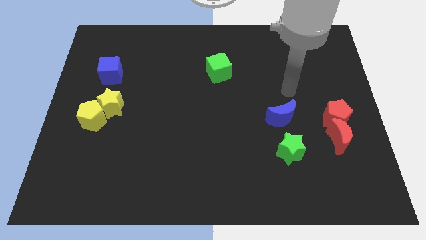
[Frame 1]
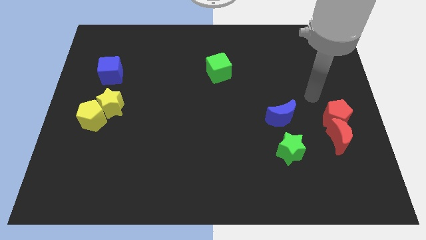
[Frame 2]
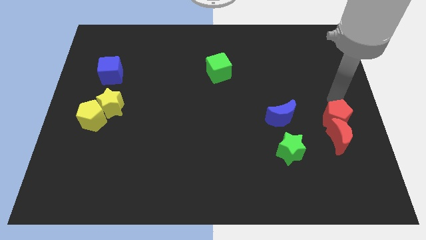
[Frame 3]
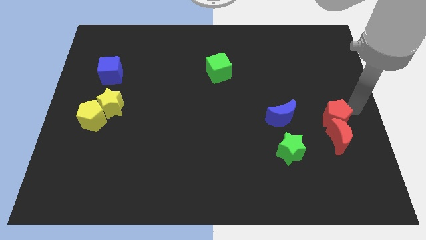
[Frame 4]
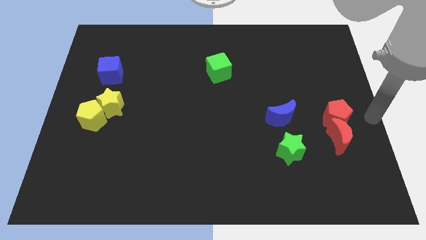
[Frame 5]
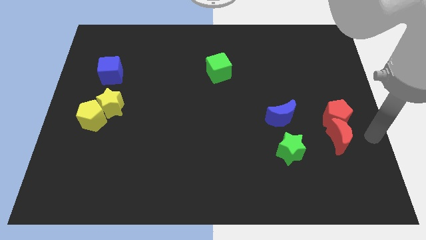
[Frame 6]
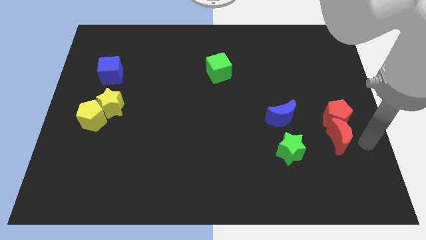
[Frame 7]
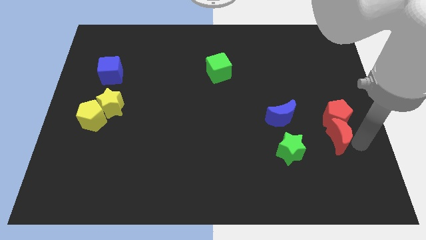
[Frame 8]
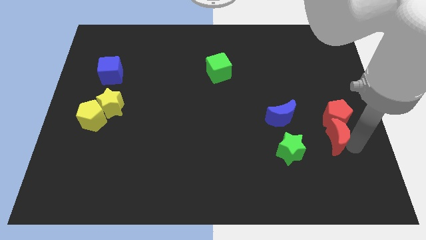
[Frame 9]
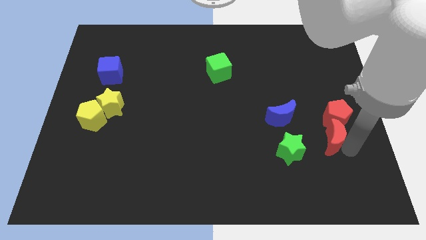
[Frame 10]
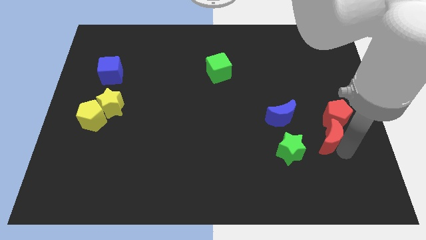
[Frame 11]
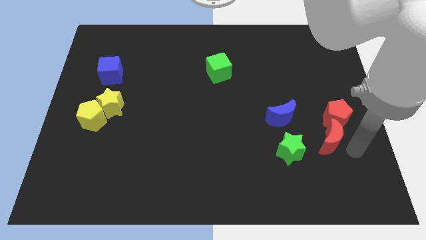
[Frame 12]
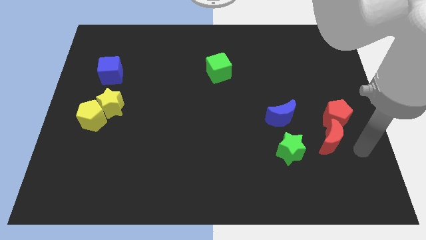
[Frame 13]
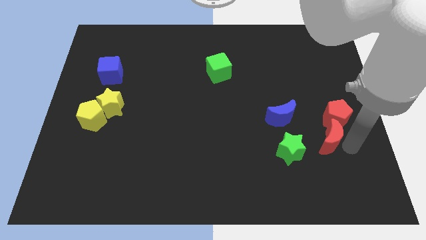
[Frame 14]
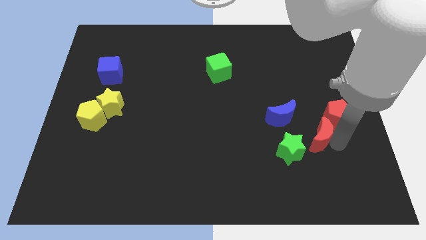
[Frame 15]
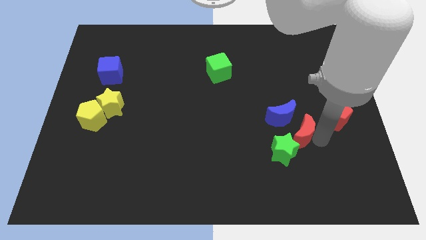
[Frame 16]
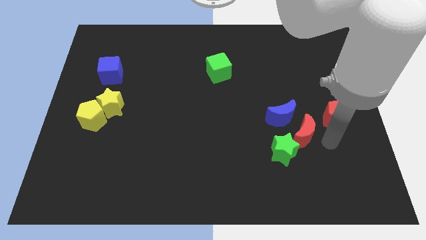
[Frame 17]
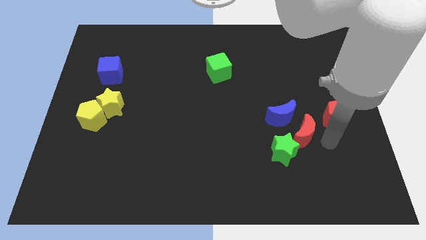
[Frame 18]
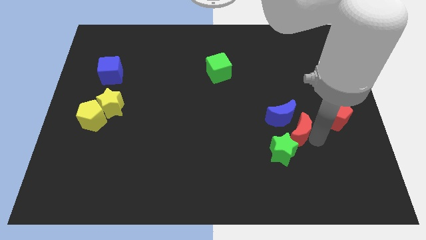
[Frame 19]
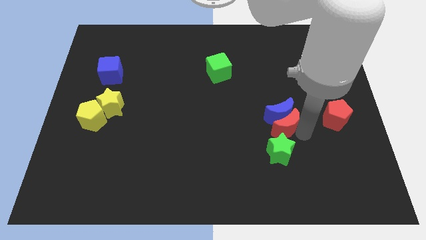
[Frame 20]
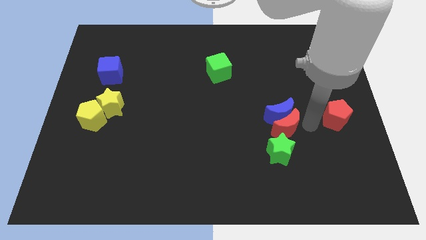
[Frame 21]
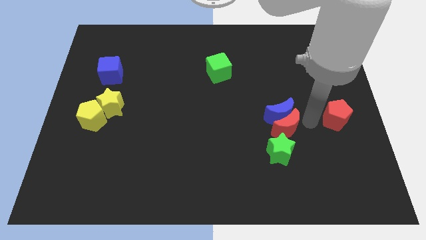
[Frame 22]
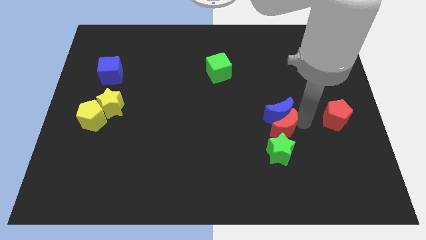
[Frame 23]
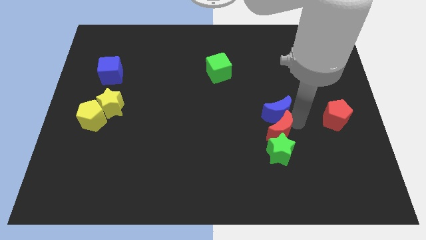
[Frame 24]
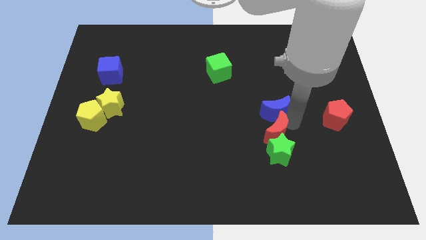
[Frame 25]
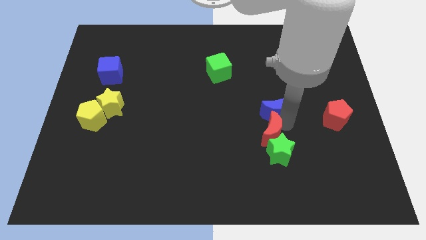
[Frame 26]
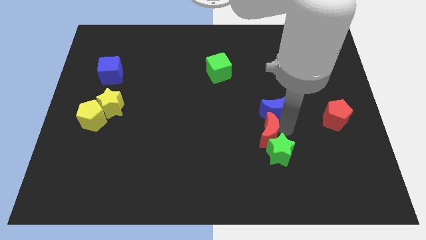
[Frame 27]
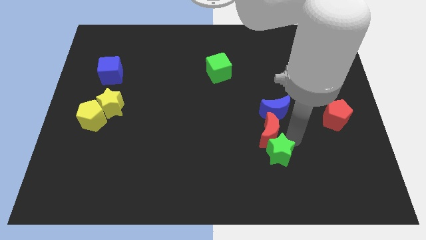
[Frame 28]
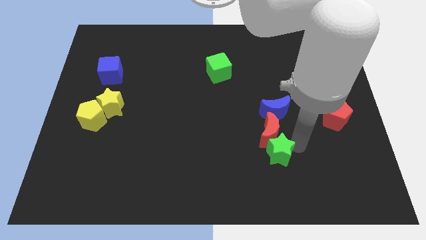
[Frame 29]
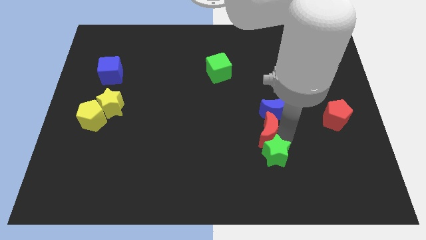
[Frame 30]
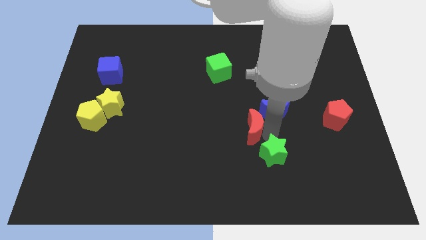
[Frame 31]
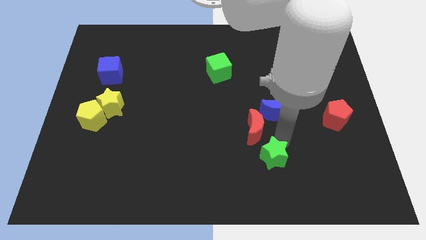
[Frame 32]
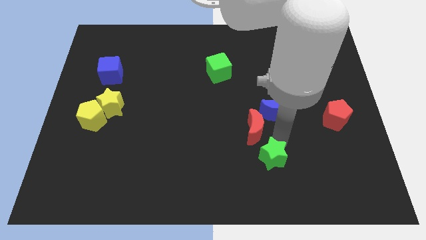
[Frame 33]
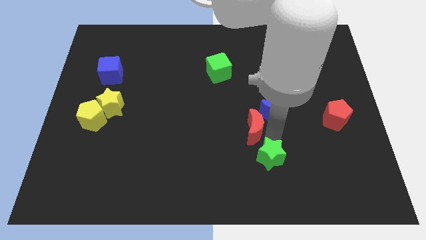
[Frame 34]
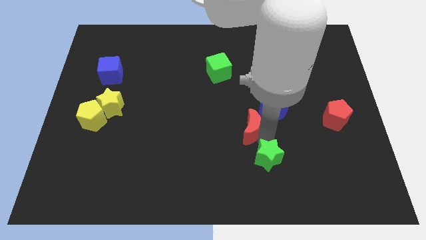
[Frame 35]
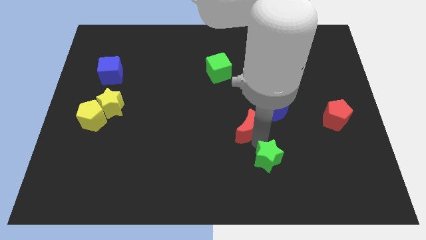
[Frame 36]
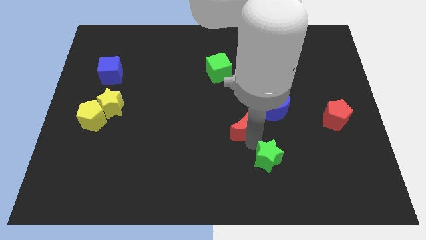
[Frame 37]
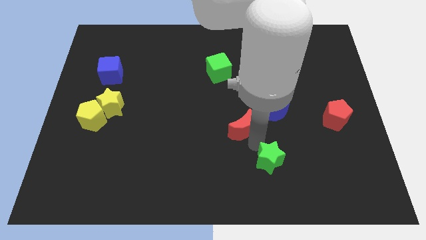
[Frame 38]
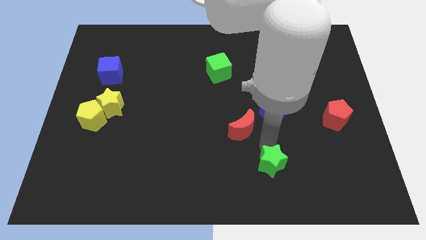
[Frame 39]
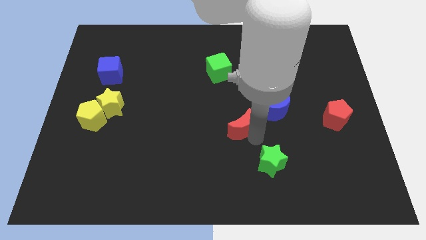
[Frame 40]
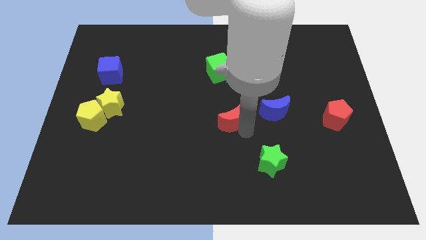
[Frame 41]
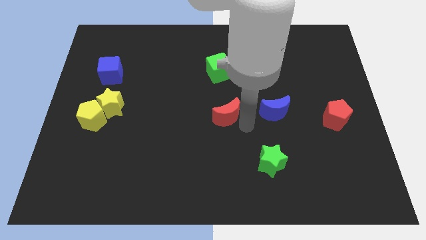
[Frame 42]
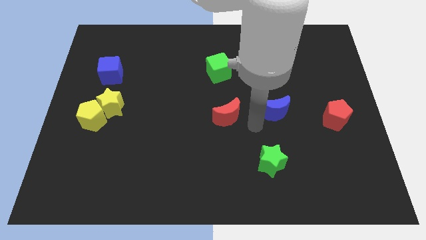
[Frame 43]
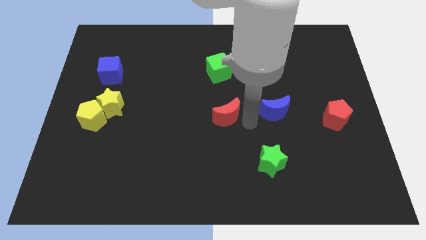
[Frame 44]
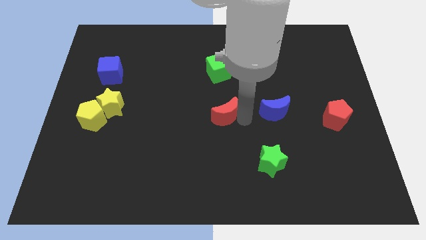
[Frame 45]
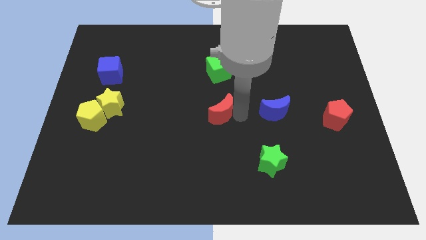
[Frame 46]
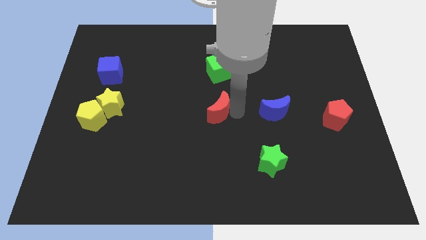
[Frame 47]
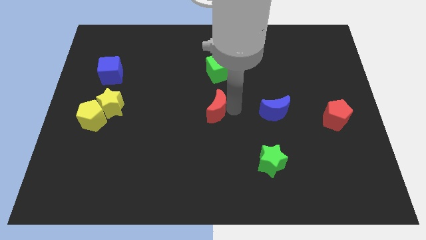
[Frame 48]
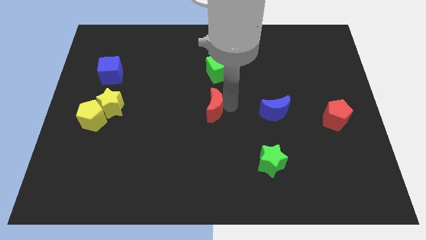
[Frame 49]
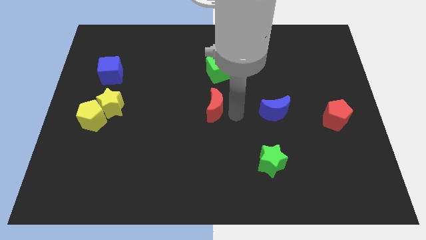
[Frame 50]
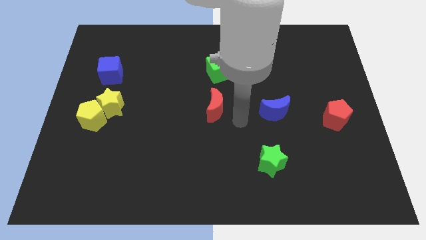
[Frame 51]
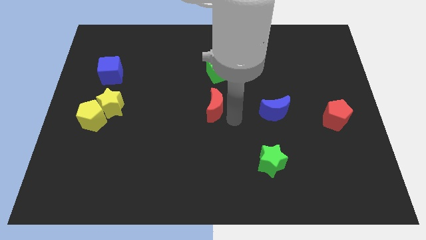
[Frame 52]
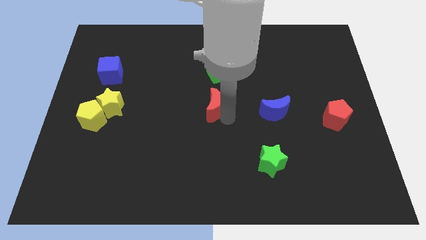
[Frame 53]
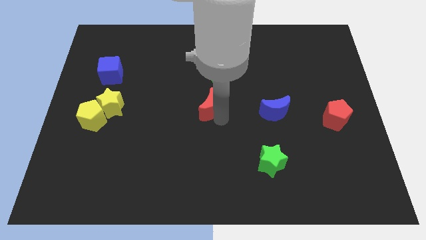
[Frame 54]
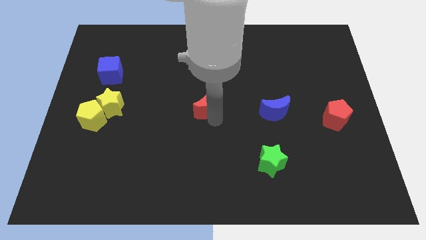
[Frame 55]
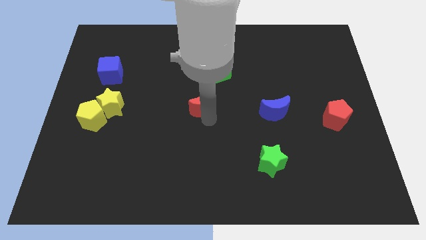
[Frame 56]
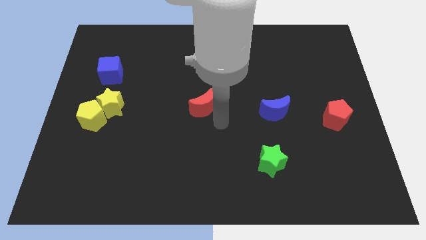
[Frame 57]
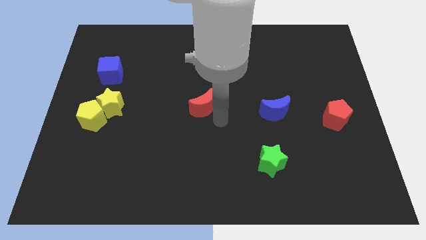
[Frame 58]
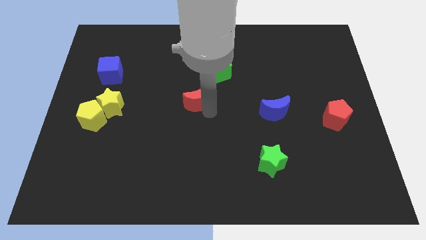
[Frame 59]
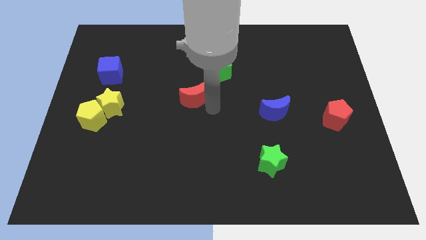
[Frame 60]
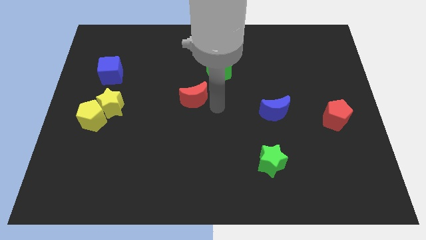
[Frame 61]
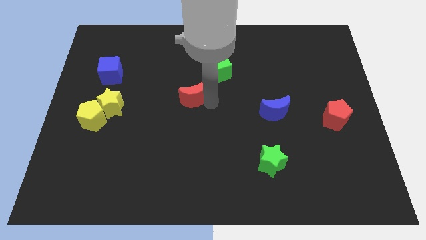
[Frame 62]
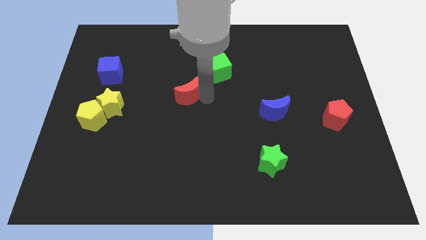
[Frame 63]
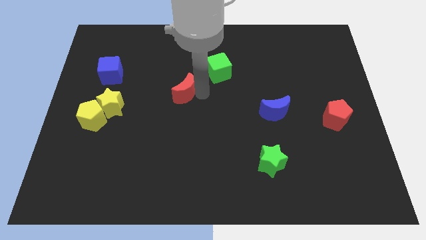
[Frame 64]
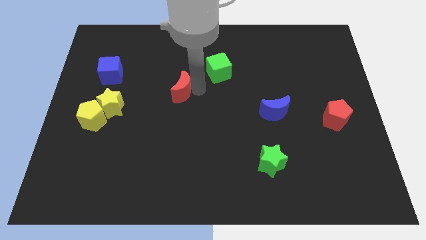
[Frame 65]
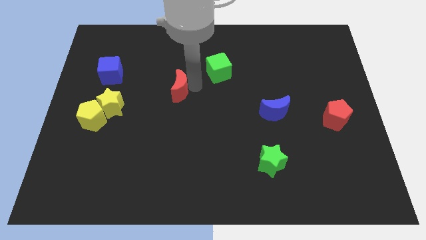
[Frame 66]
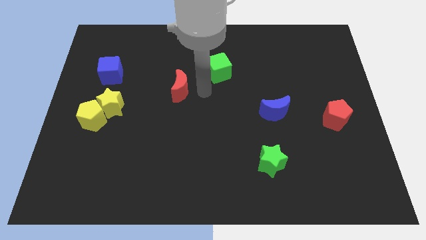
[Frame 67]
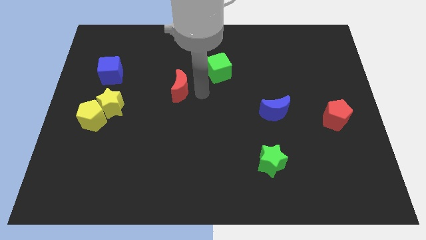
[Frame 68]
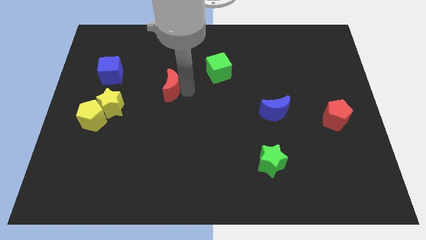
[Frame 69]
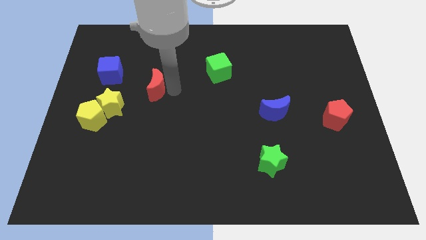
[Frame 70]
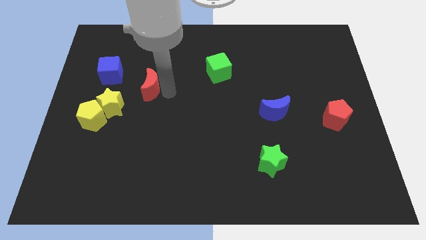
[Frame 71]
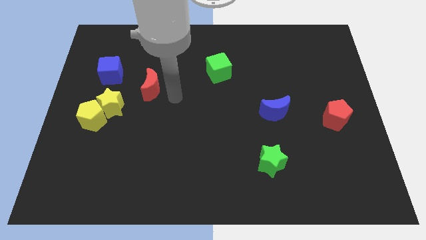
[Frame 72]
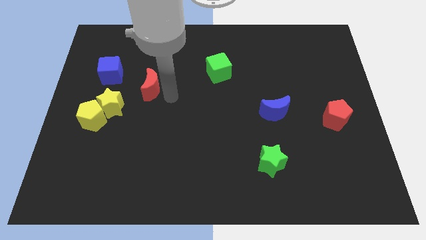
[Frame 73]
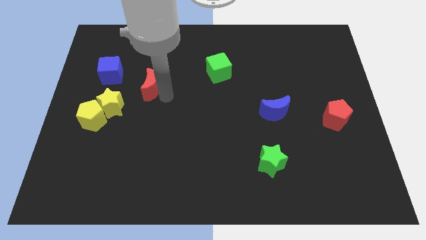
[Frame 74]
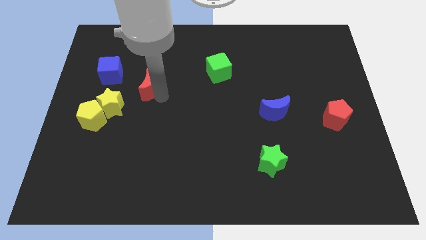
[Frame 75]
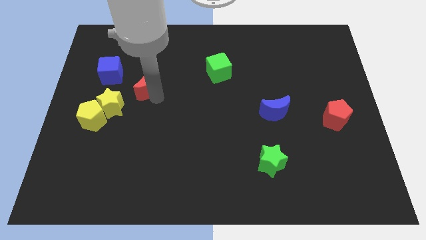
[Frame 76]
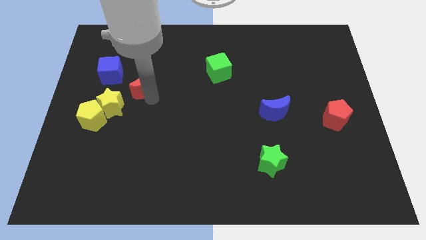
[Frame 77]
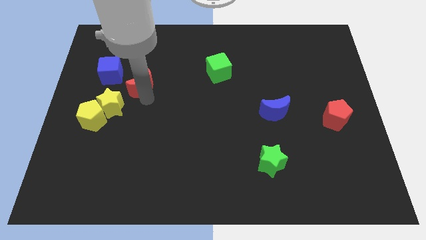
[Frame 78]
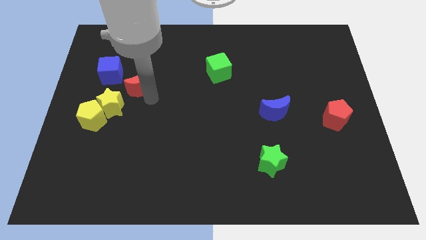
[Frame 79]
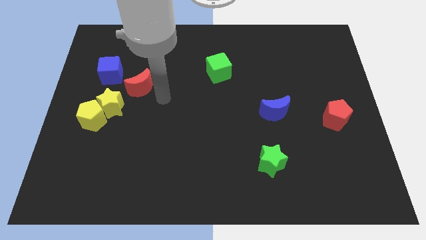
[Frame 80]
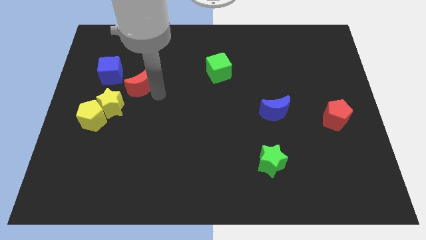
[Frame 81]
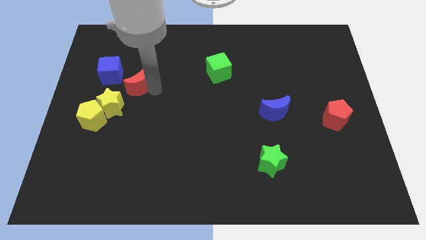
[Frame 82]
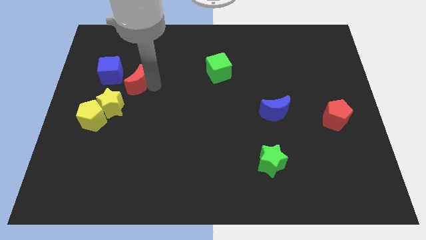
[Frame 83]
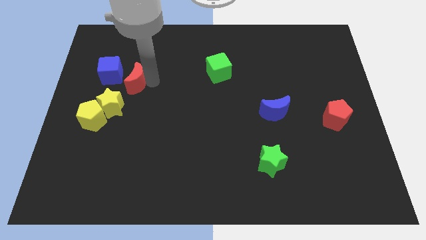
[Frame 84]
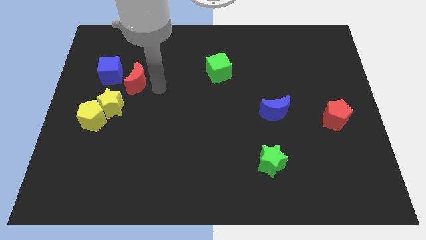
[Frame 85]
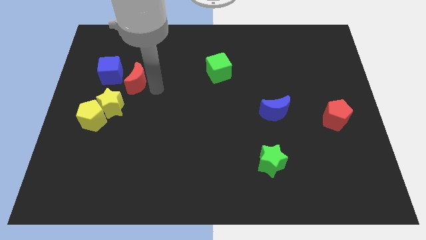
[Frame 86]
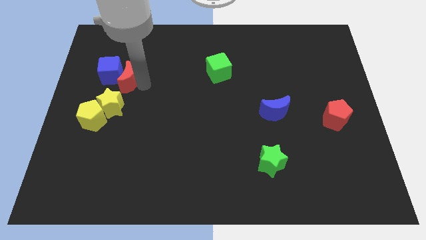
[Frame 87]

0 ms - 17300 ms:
slide the red moon close to the blue cube
